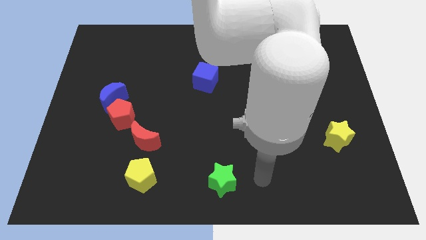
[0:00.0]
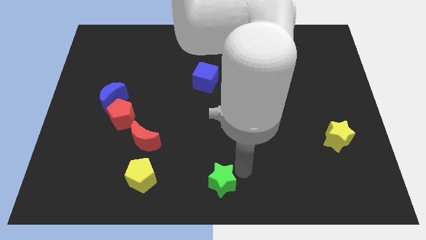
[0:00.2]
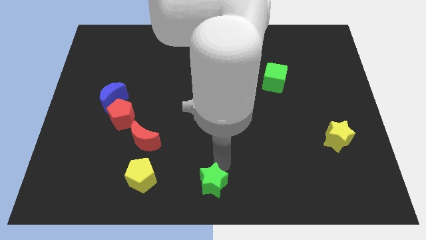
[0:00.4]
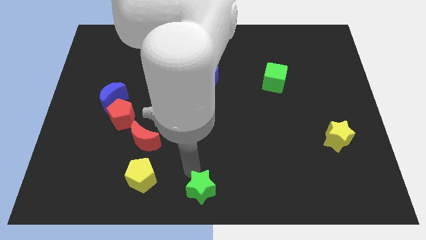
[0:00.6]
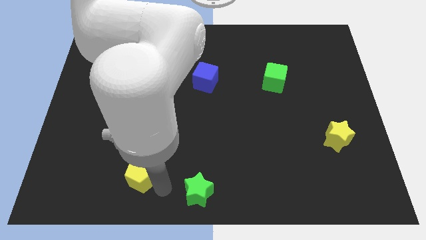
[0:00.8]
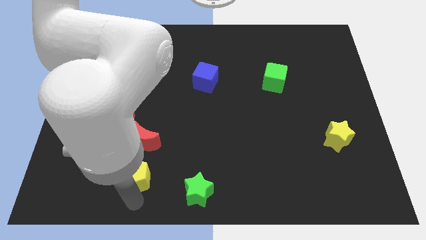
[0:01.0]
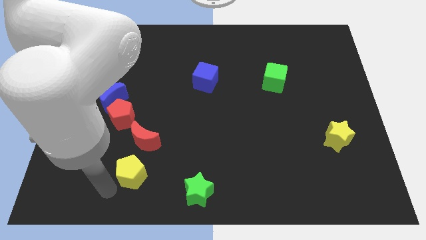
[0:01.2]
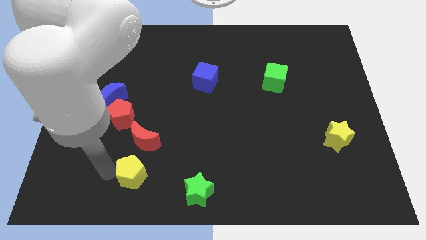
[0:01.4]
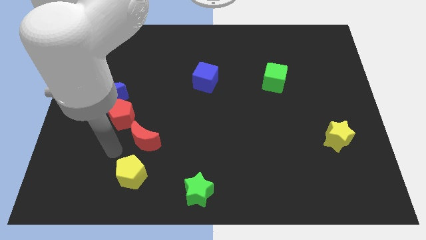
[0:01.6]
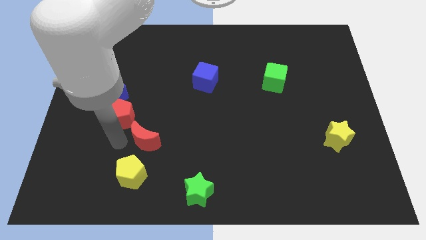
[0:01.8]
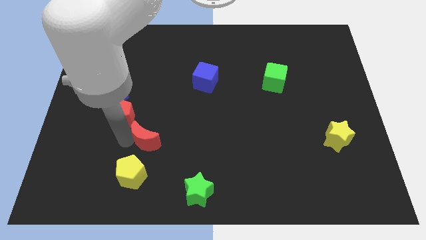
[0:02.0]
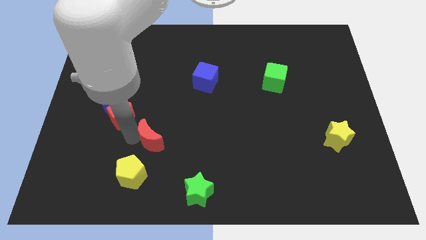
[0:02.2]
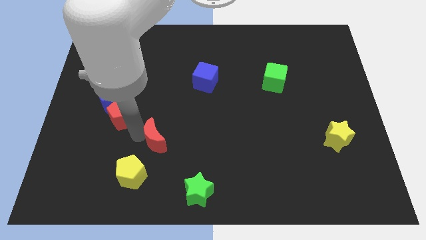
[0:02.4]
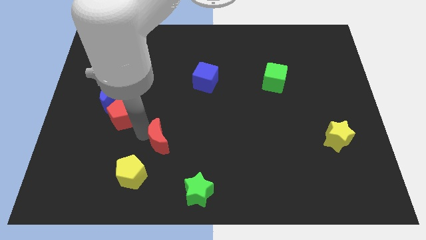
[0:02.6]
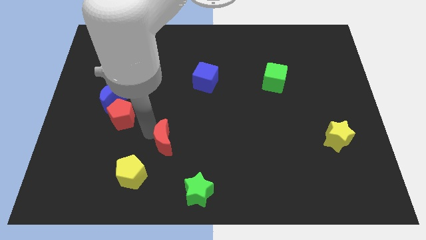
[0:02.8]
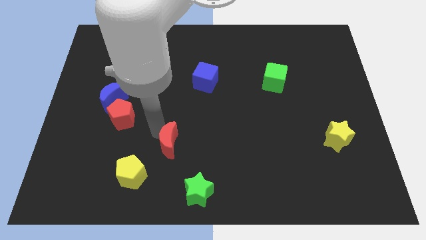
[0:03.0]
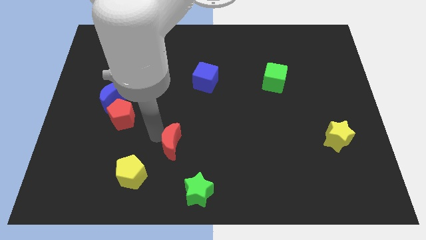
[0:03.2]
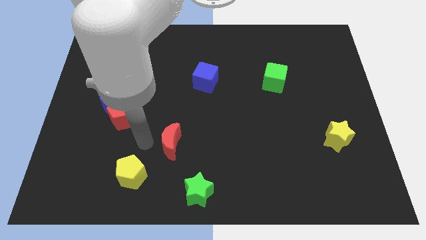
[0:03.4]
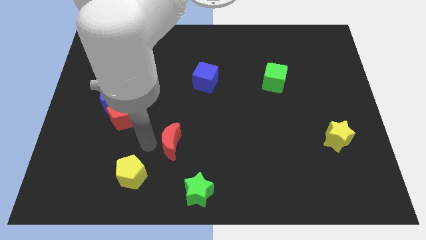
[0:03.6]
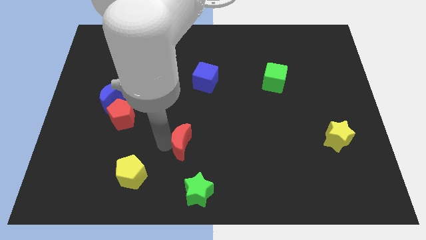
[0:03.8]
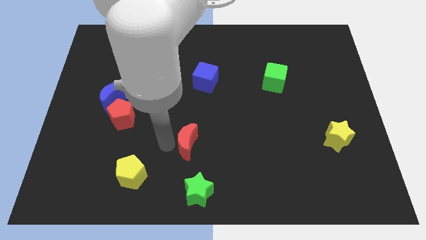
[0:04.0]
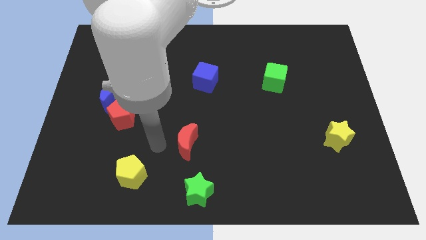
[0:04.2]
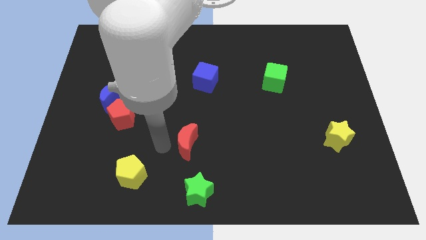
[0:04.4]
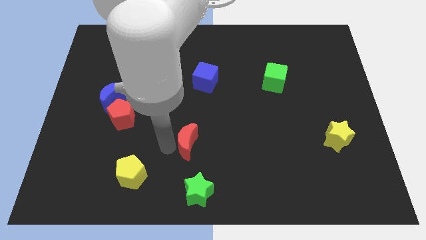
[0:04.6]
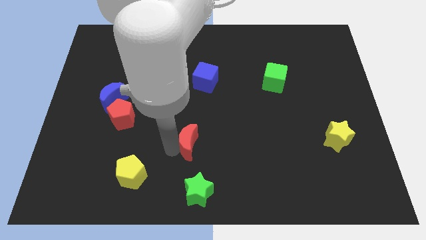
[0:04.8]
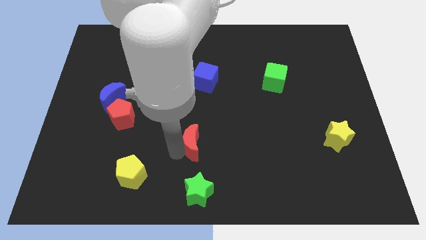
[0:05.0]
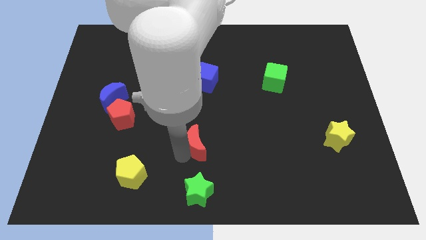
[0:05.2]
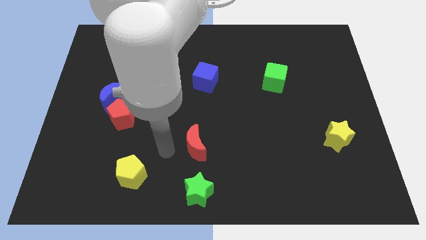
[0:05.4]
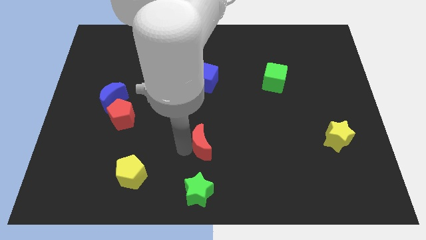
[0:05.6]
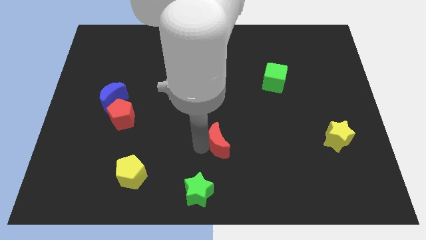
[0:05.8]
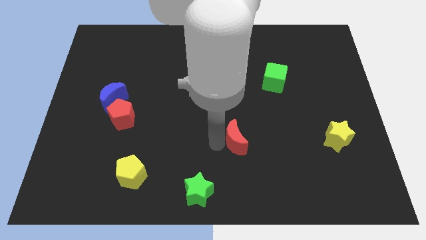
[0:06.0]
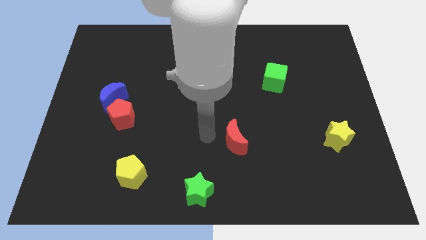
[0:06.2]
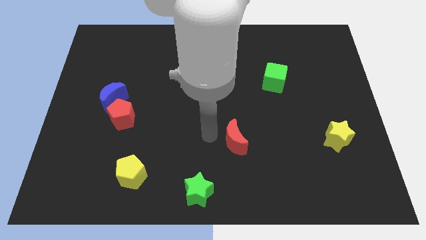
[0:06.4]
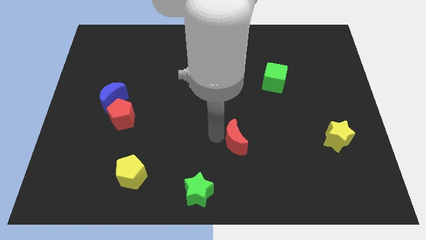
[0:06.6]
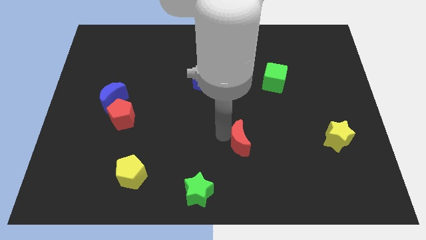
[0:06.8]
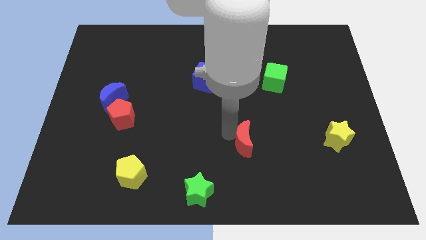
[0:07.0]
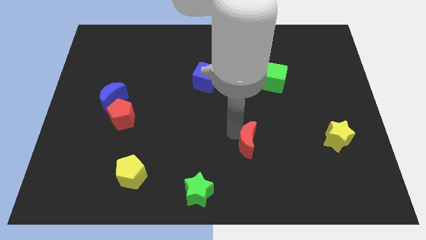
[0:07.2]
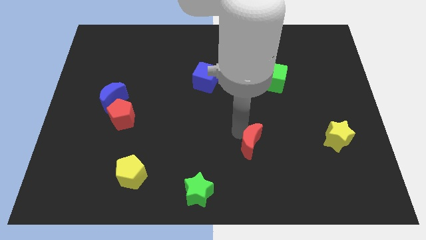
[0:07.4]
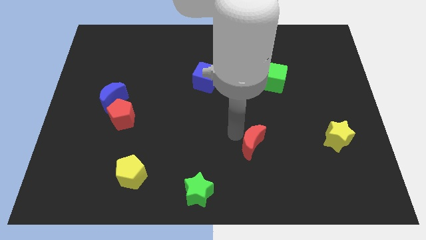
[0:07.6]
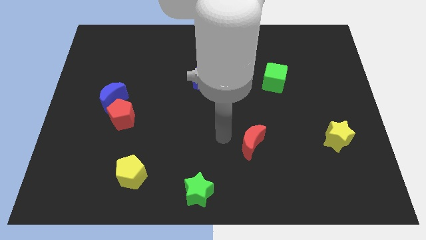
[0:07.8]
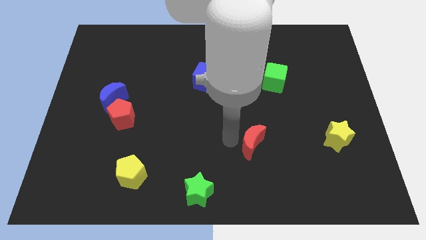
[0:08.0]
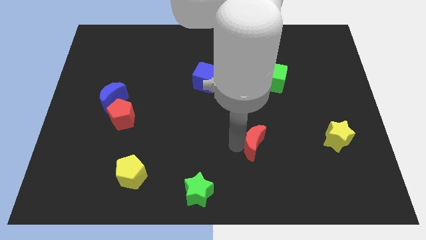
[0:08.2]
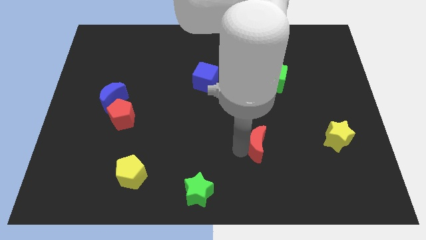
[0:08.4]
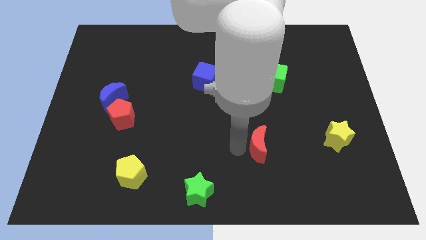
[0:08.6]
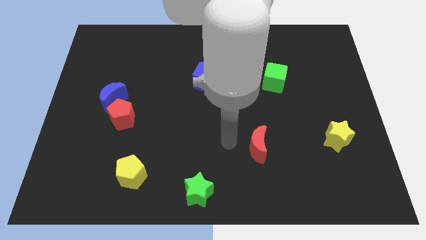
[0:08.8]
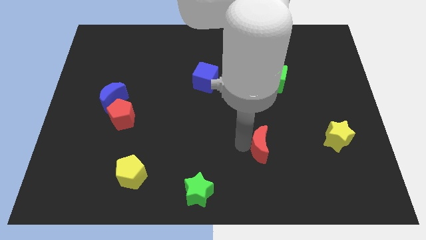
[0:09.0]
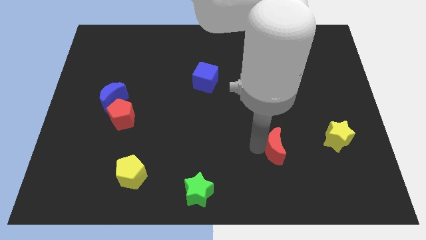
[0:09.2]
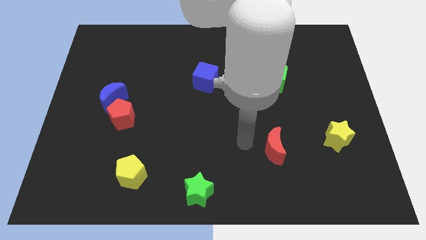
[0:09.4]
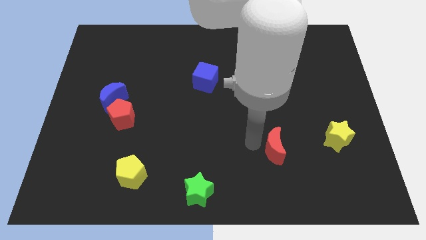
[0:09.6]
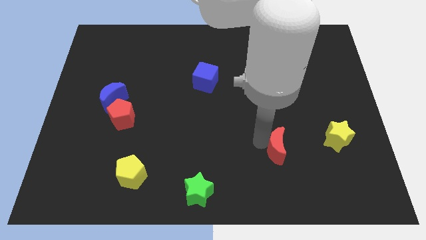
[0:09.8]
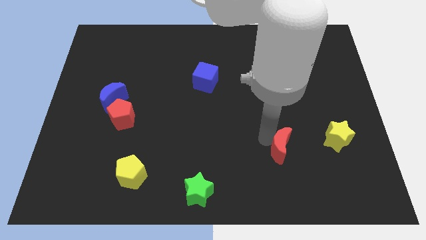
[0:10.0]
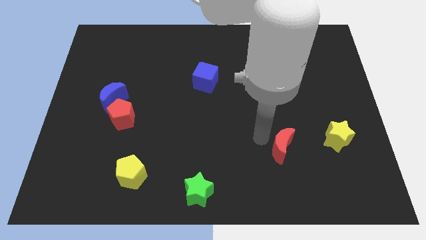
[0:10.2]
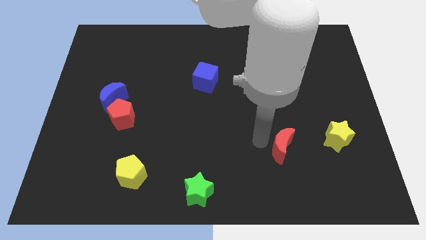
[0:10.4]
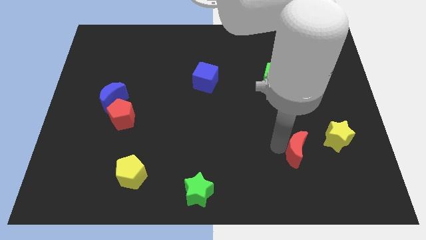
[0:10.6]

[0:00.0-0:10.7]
slide the red moon to the bottom left side of the yellow star

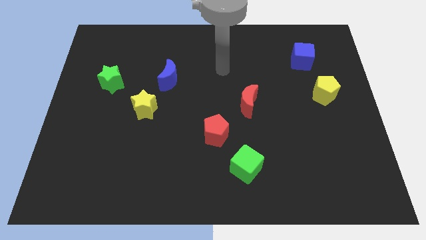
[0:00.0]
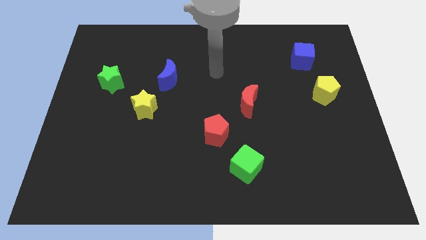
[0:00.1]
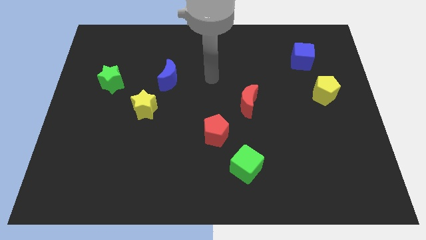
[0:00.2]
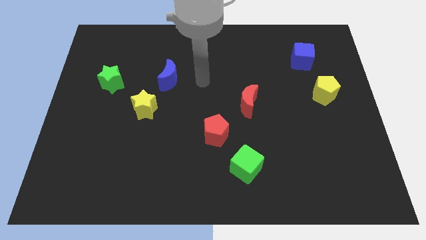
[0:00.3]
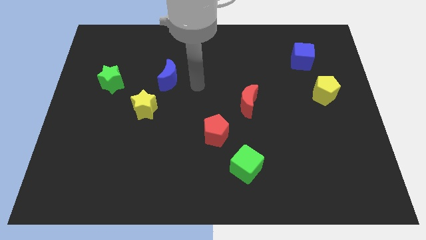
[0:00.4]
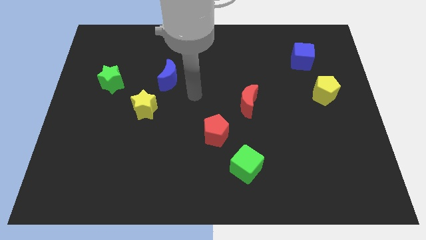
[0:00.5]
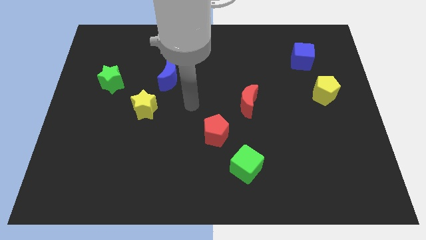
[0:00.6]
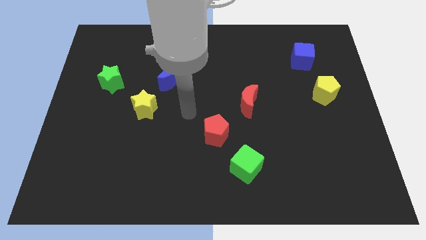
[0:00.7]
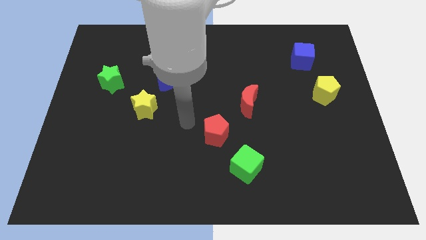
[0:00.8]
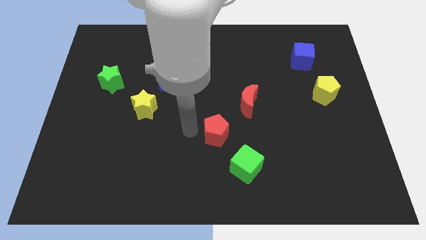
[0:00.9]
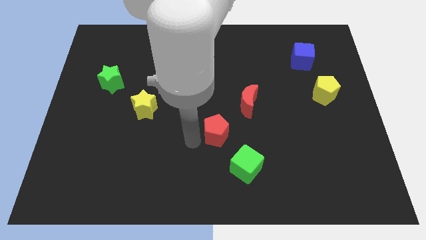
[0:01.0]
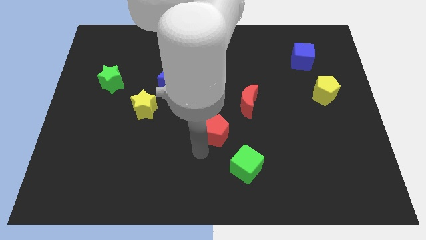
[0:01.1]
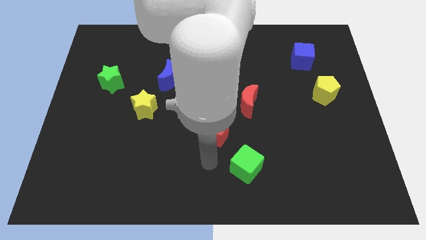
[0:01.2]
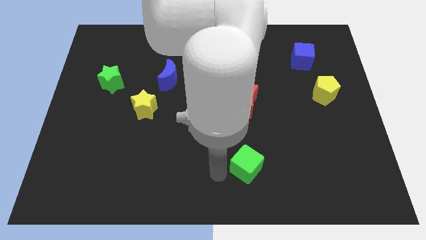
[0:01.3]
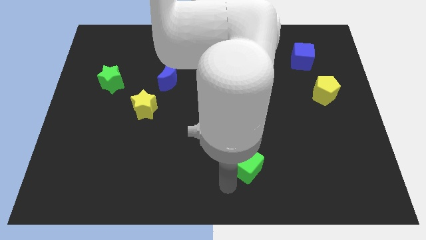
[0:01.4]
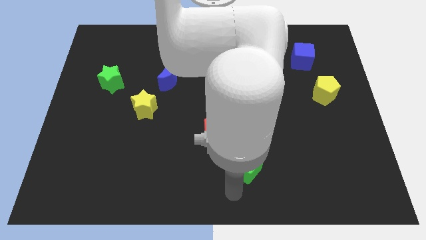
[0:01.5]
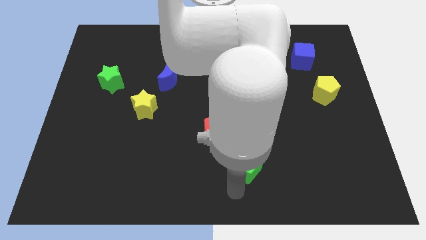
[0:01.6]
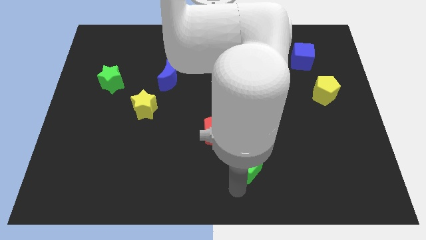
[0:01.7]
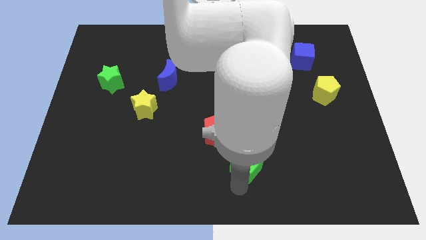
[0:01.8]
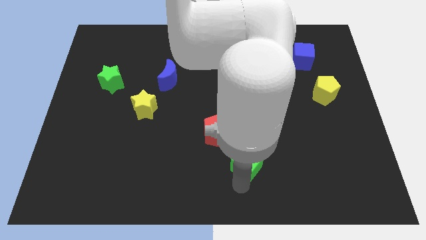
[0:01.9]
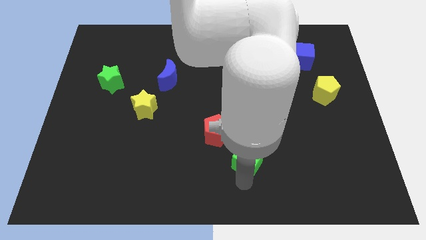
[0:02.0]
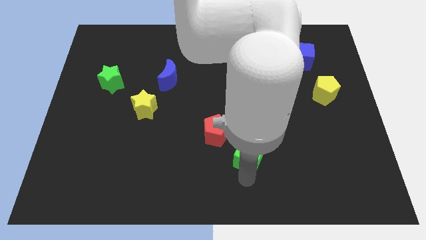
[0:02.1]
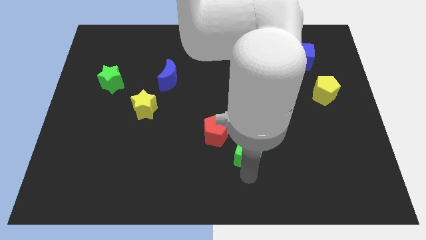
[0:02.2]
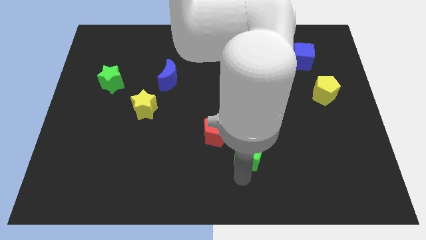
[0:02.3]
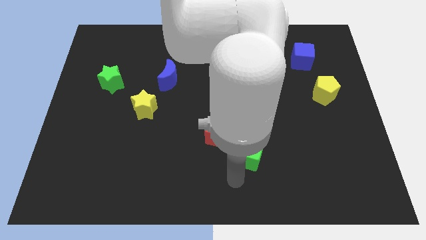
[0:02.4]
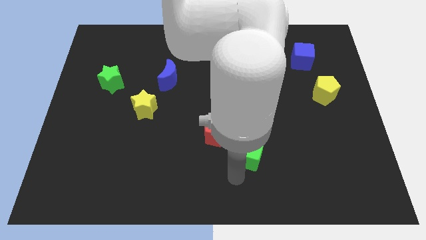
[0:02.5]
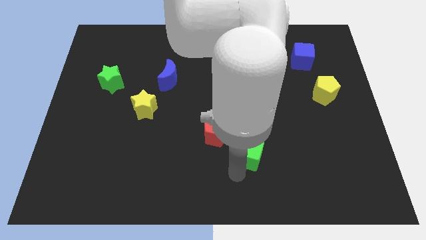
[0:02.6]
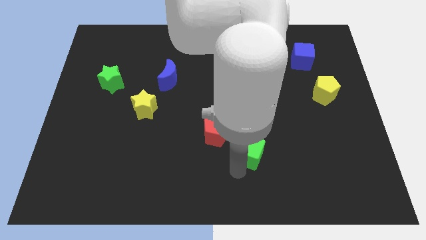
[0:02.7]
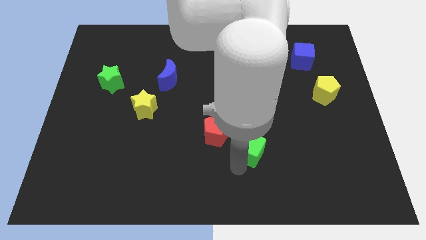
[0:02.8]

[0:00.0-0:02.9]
put the green cube right of the red pentagon
